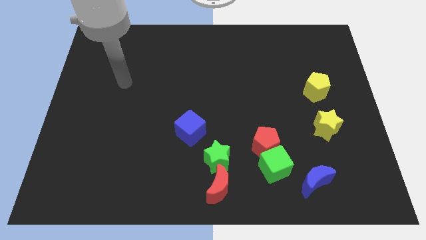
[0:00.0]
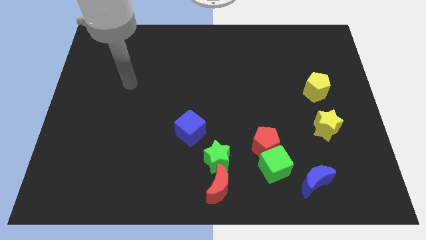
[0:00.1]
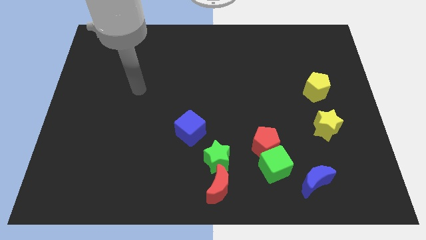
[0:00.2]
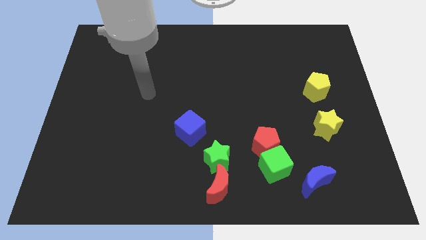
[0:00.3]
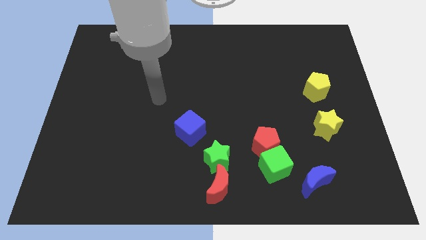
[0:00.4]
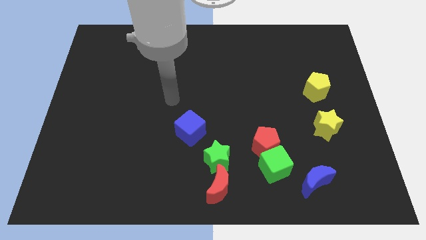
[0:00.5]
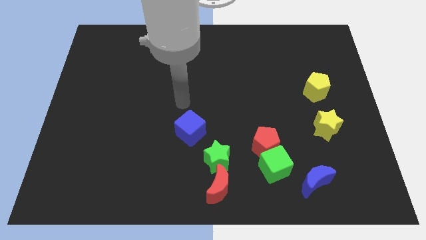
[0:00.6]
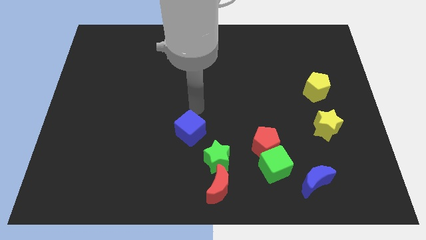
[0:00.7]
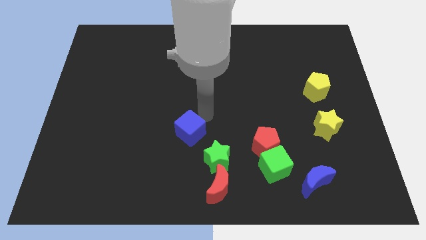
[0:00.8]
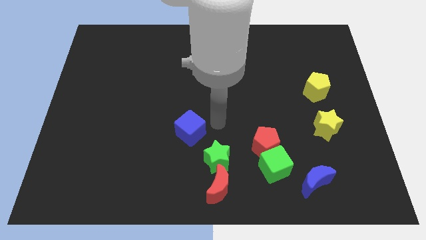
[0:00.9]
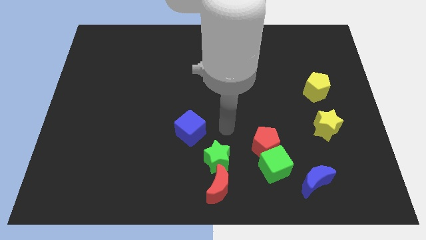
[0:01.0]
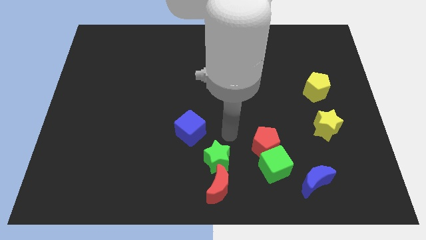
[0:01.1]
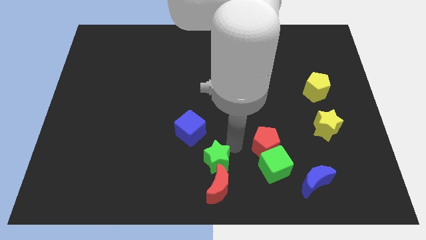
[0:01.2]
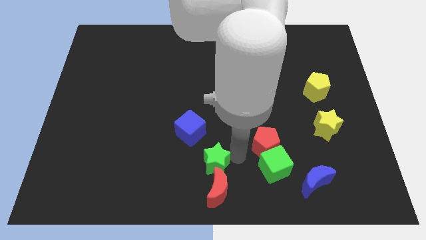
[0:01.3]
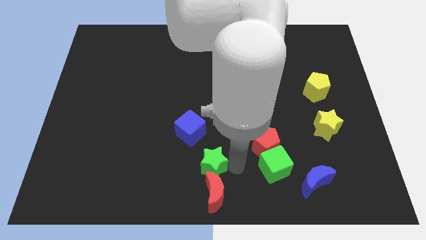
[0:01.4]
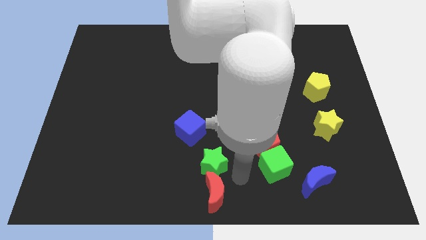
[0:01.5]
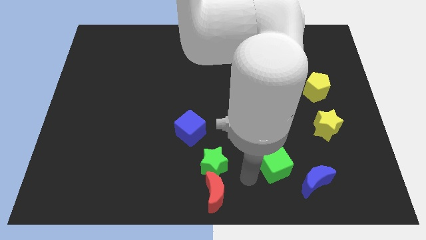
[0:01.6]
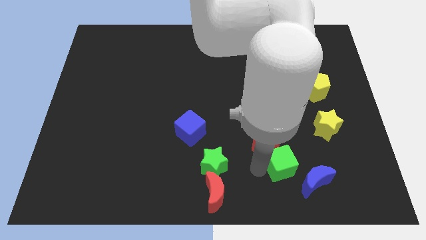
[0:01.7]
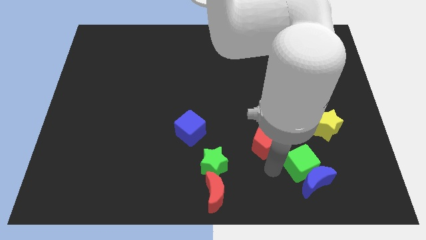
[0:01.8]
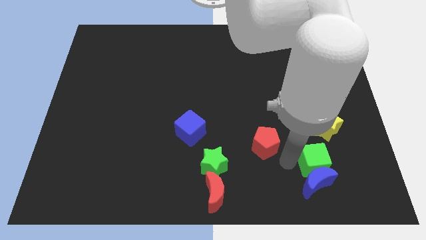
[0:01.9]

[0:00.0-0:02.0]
pull the red pentagon apart from the green cube

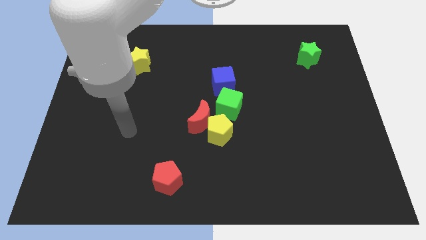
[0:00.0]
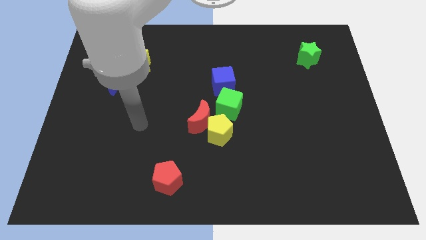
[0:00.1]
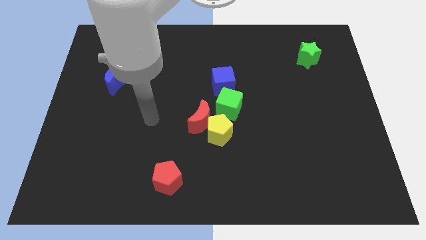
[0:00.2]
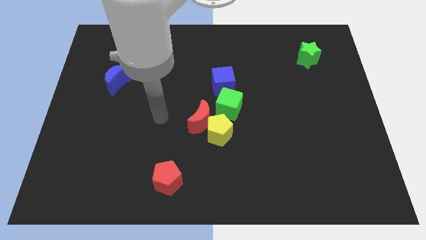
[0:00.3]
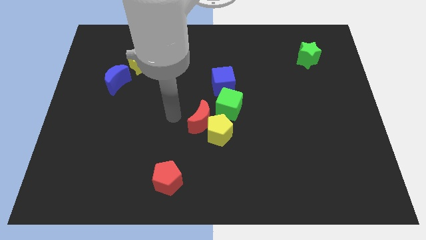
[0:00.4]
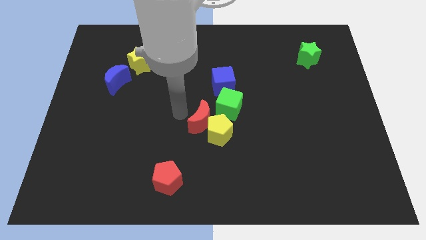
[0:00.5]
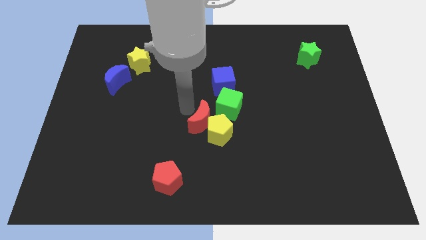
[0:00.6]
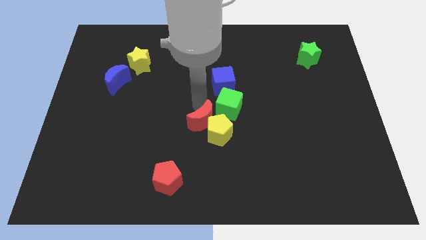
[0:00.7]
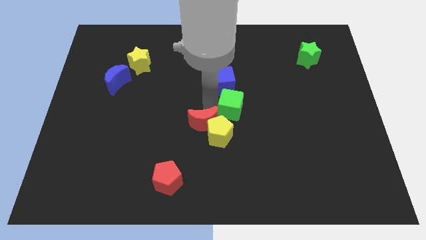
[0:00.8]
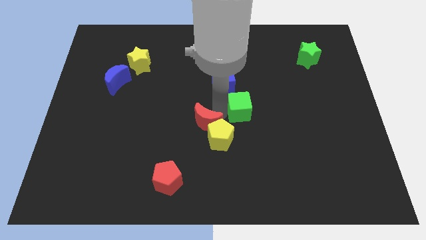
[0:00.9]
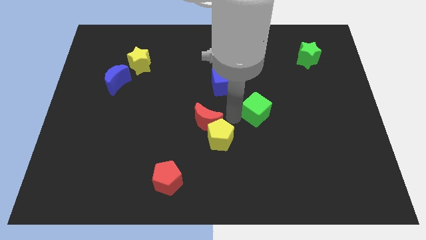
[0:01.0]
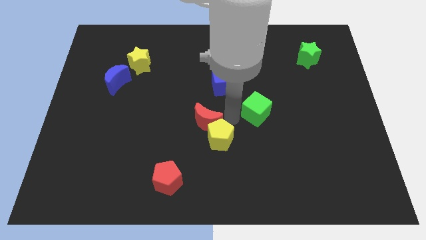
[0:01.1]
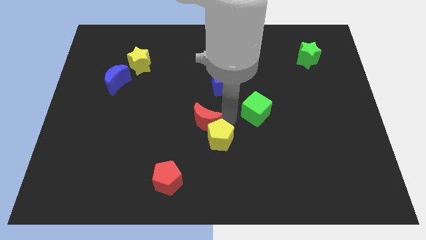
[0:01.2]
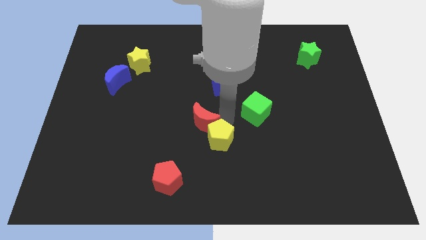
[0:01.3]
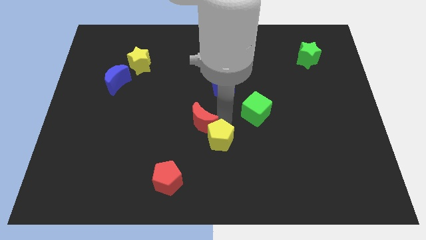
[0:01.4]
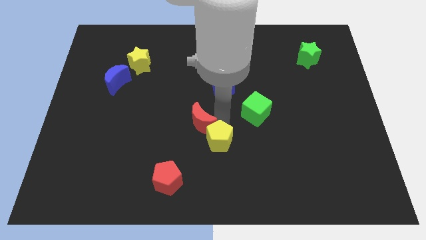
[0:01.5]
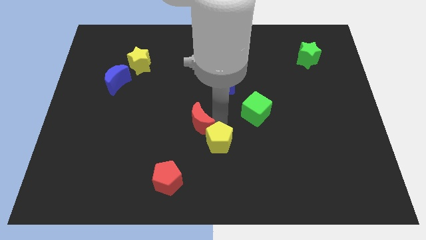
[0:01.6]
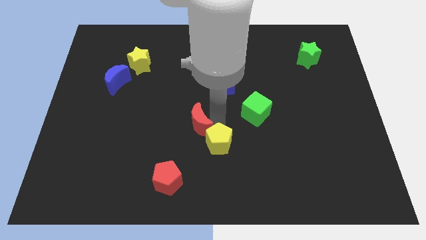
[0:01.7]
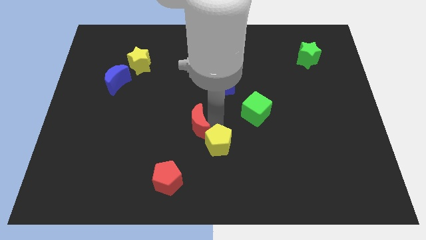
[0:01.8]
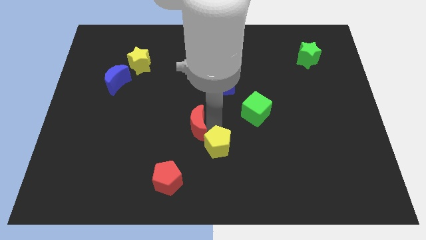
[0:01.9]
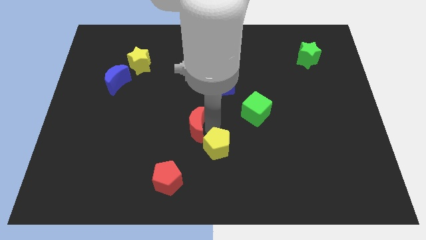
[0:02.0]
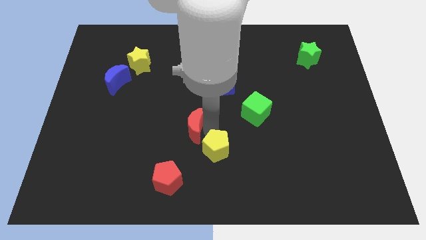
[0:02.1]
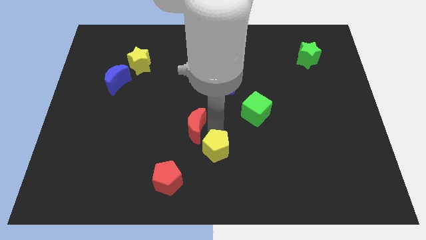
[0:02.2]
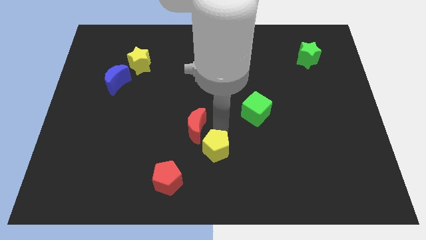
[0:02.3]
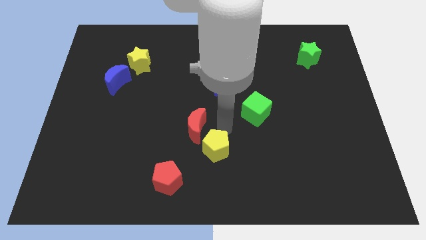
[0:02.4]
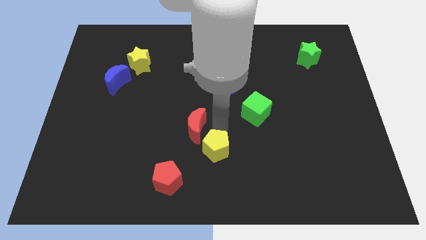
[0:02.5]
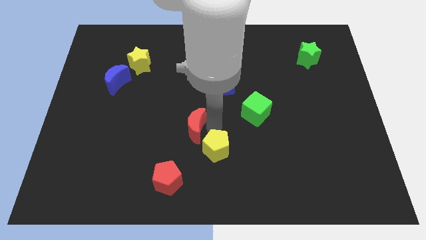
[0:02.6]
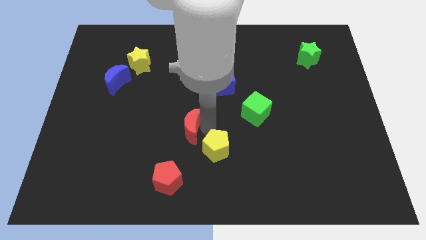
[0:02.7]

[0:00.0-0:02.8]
separate the red moon from the yellow pentagon and green cube

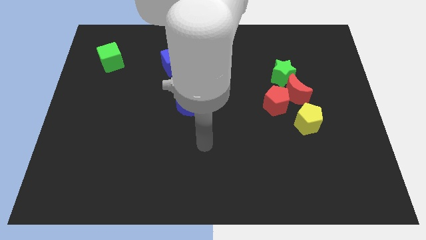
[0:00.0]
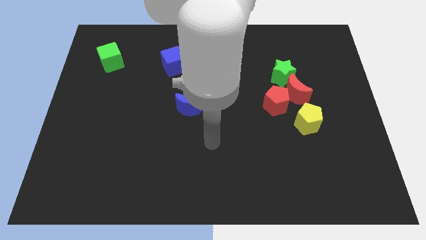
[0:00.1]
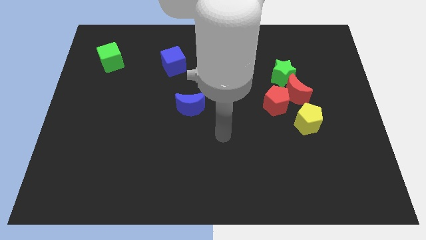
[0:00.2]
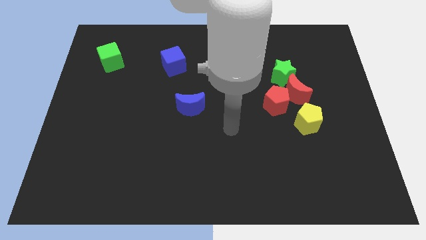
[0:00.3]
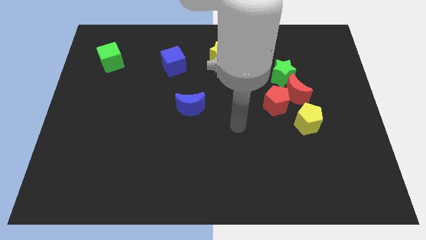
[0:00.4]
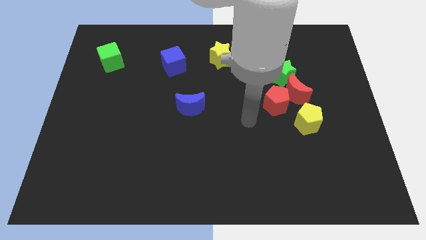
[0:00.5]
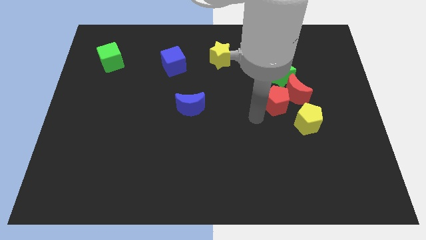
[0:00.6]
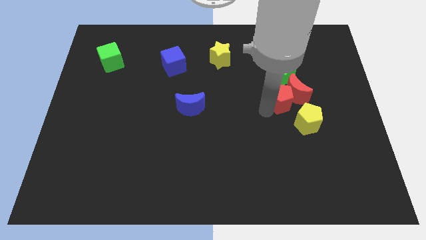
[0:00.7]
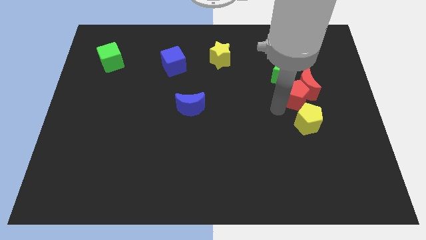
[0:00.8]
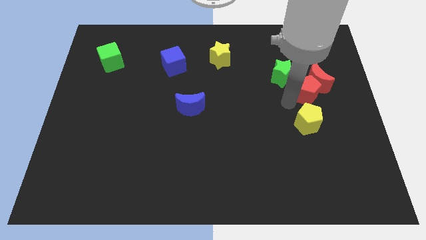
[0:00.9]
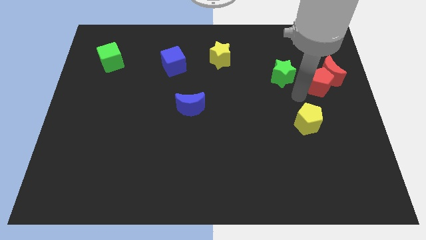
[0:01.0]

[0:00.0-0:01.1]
separate the red moon from the red pentagon, green star, and yellow pentagon

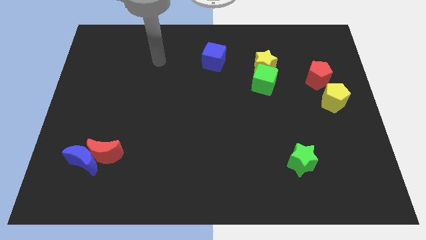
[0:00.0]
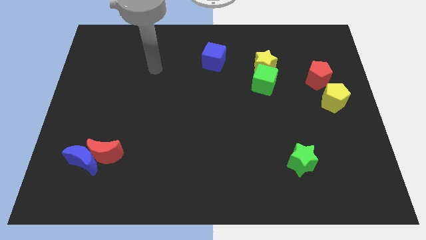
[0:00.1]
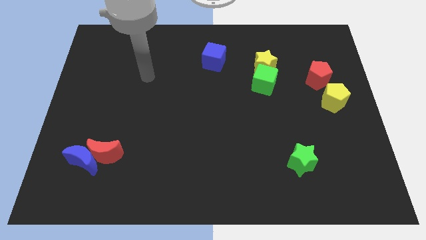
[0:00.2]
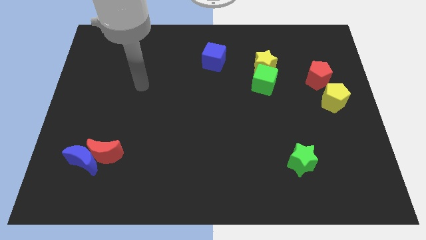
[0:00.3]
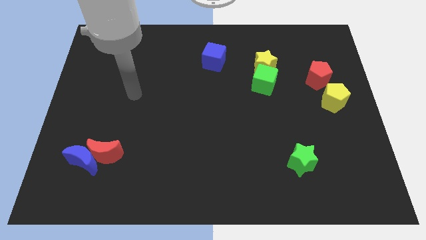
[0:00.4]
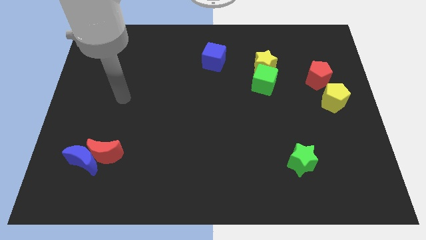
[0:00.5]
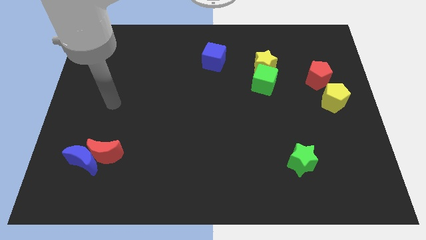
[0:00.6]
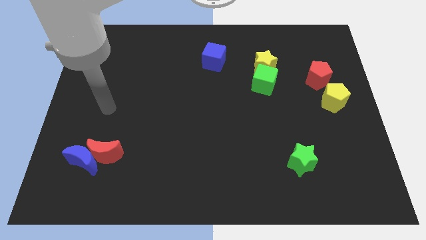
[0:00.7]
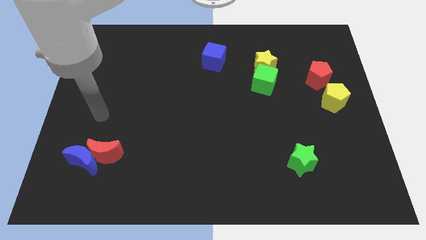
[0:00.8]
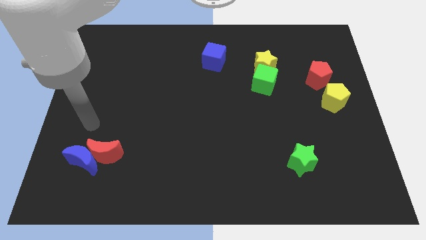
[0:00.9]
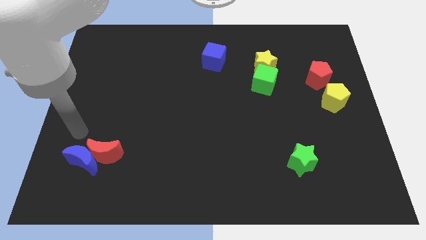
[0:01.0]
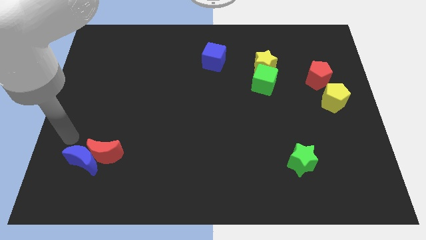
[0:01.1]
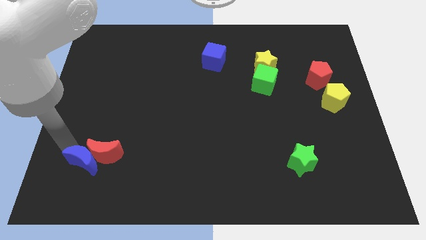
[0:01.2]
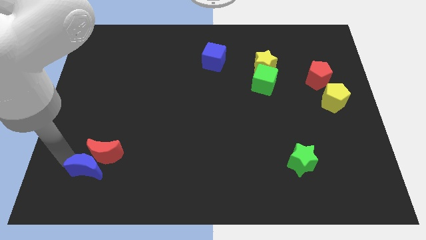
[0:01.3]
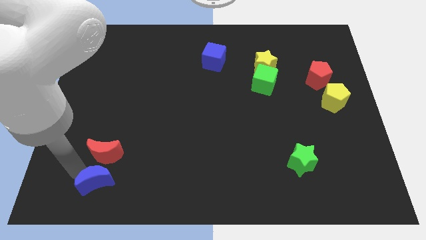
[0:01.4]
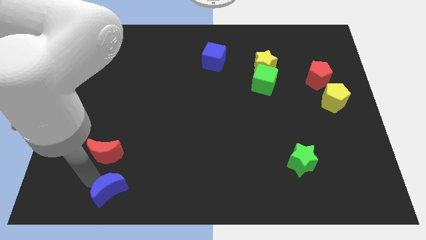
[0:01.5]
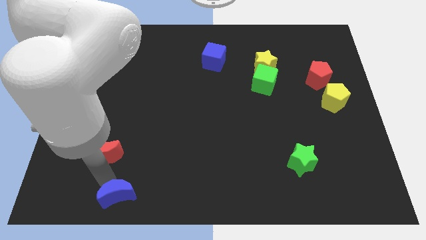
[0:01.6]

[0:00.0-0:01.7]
pull the red moon apart from the blue moon

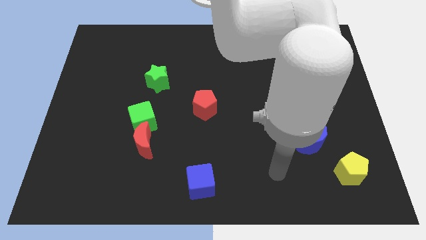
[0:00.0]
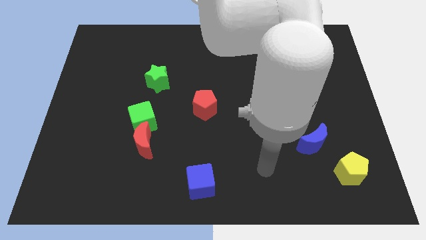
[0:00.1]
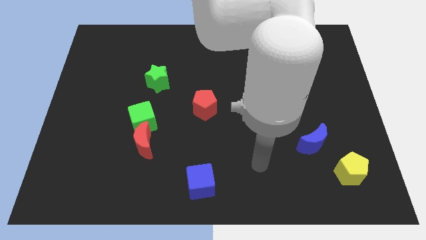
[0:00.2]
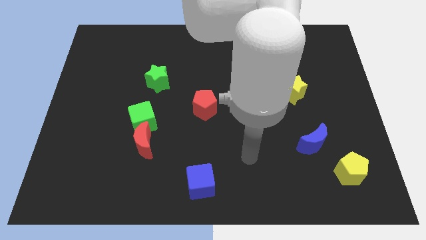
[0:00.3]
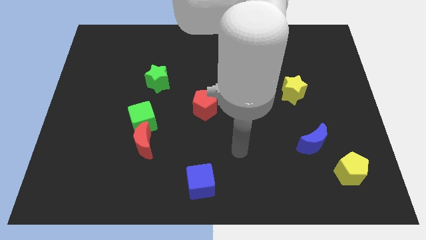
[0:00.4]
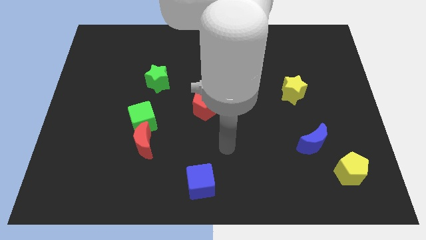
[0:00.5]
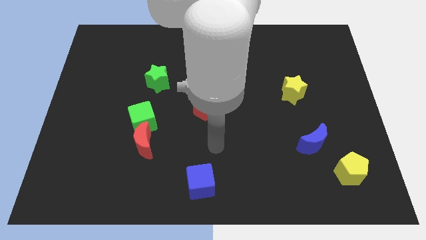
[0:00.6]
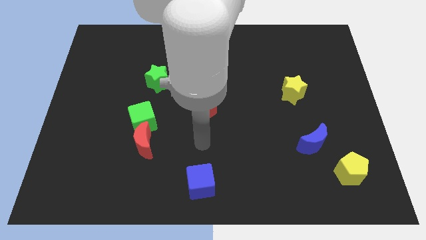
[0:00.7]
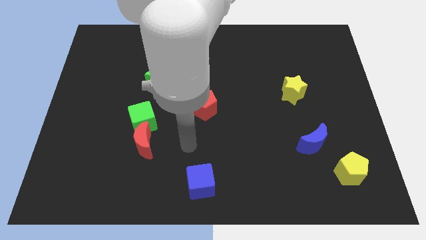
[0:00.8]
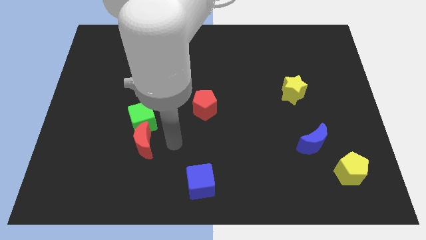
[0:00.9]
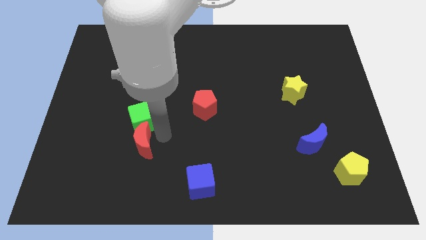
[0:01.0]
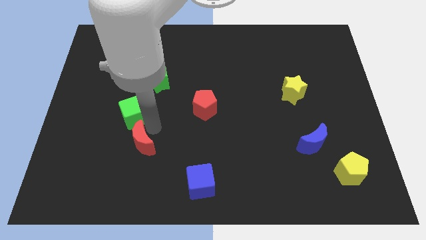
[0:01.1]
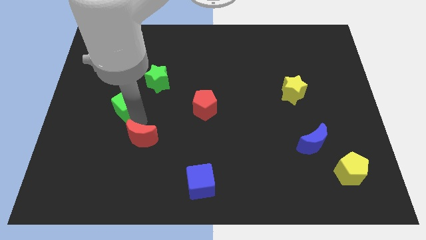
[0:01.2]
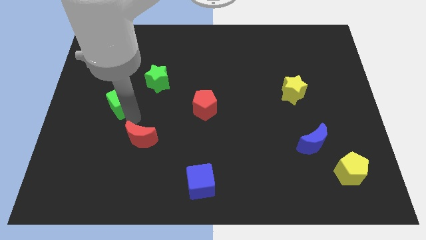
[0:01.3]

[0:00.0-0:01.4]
move the red moon away from the green cube

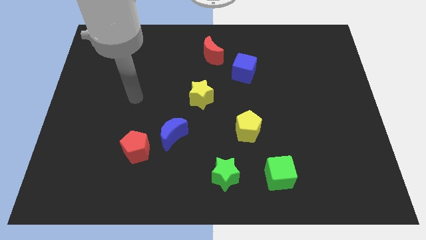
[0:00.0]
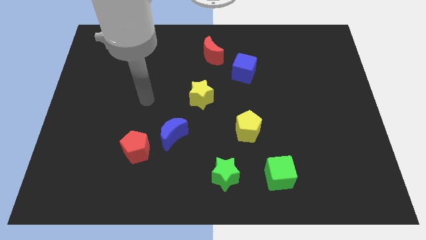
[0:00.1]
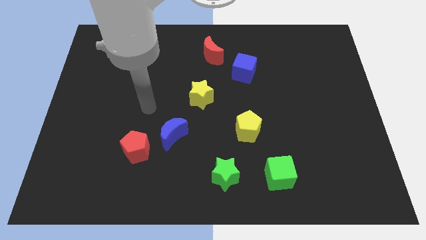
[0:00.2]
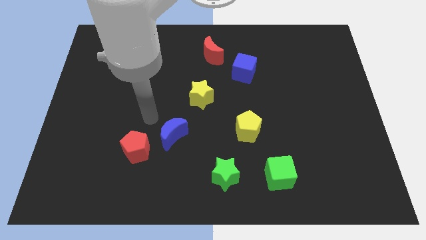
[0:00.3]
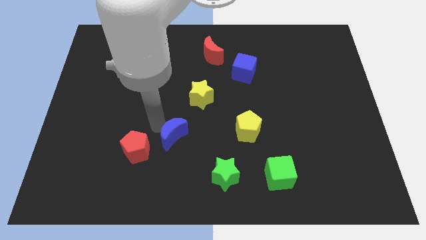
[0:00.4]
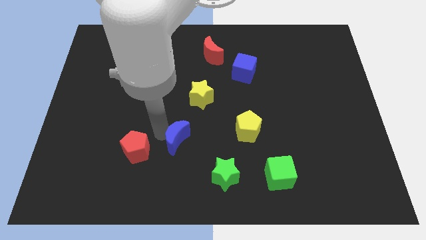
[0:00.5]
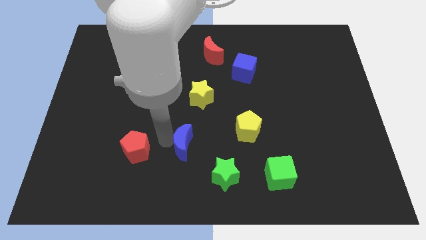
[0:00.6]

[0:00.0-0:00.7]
move the red pentagon away from the blue moon
